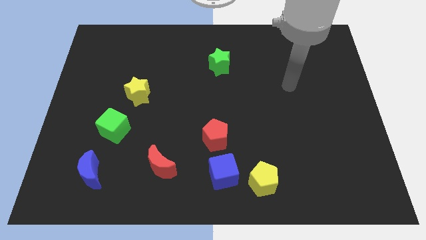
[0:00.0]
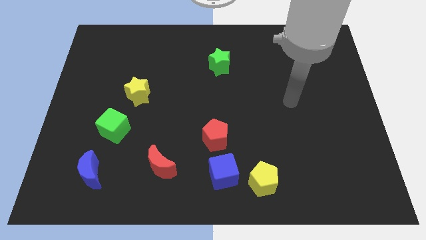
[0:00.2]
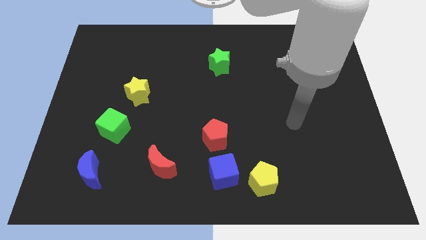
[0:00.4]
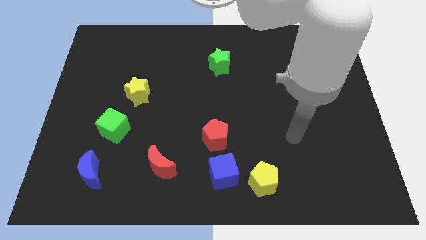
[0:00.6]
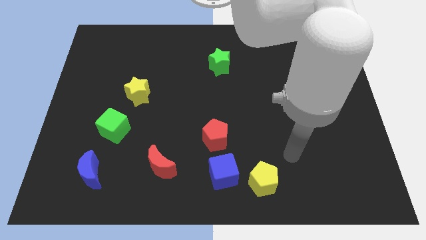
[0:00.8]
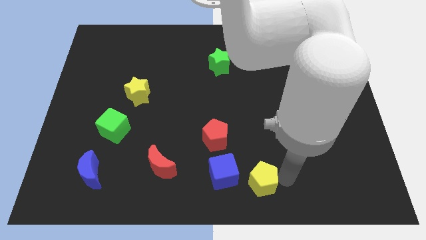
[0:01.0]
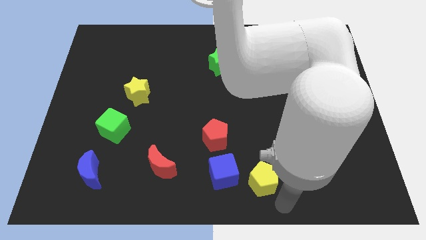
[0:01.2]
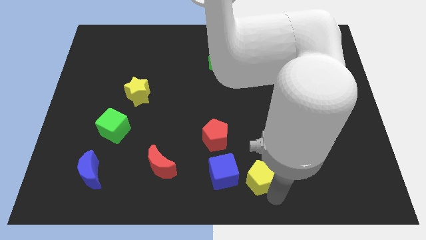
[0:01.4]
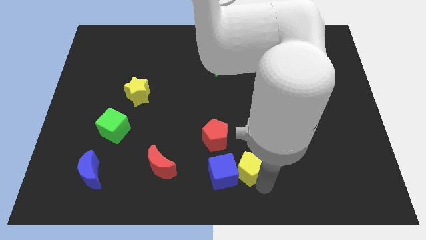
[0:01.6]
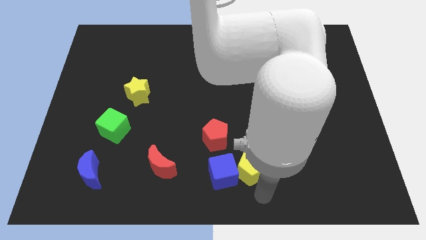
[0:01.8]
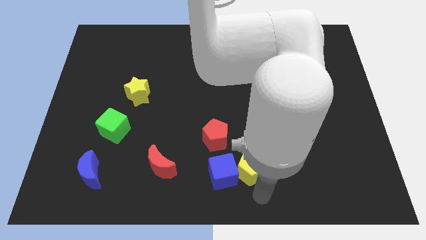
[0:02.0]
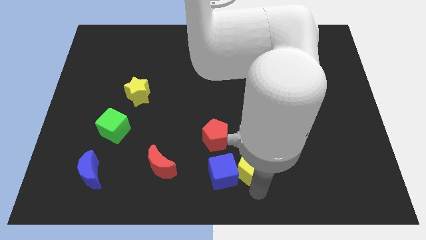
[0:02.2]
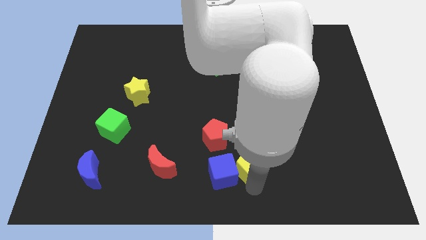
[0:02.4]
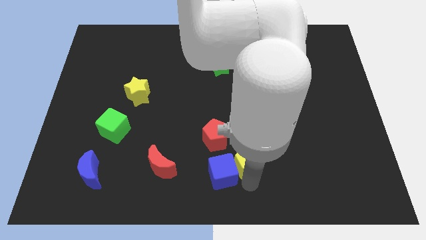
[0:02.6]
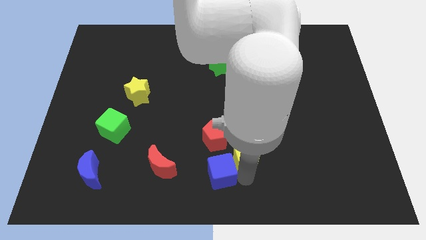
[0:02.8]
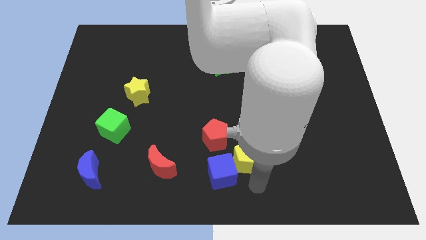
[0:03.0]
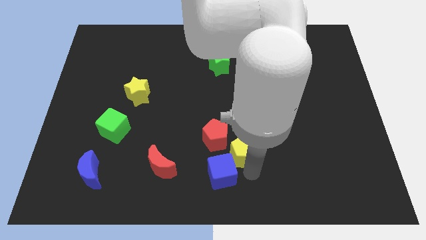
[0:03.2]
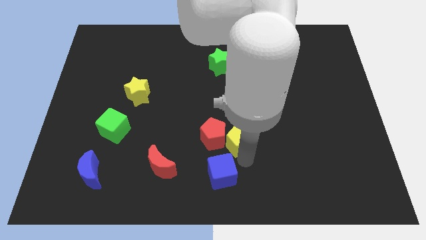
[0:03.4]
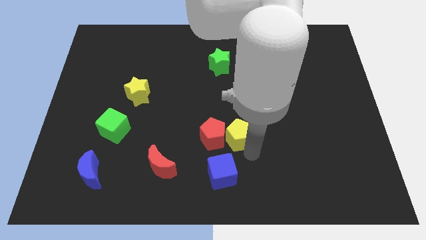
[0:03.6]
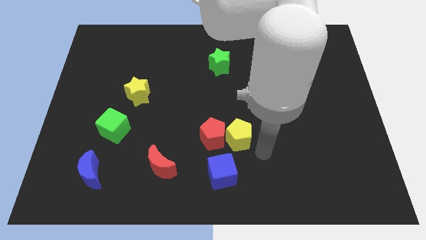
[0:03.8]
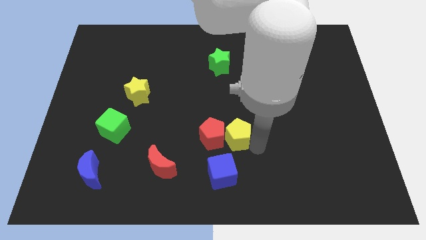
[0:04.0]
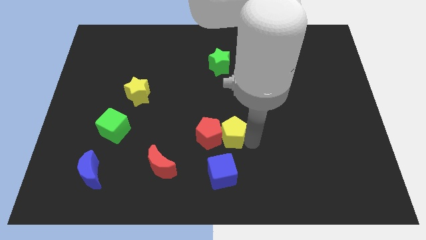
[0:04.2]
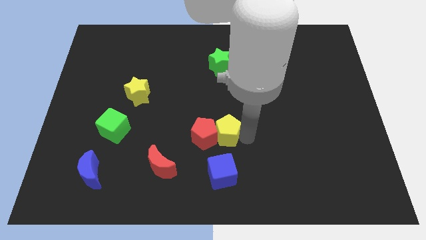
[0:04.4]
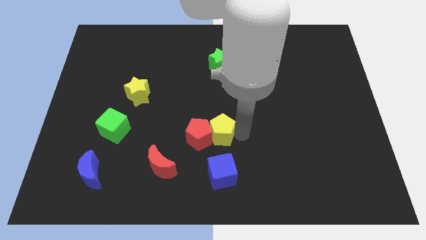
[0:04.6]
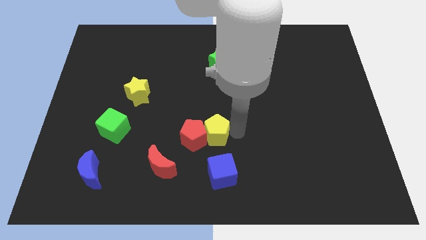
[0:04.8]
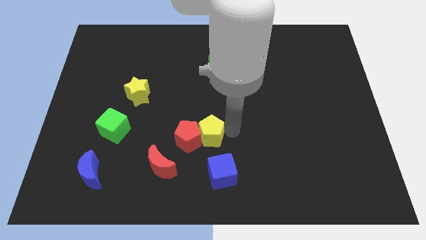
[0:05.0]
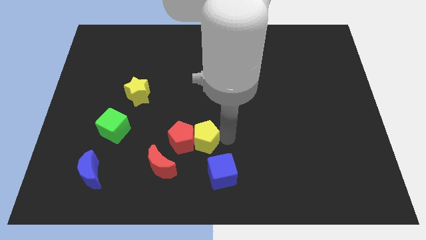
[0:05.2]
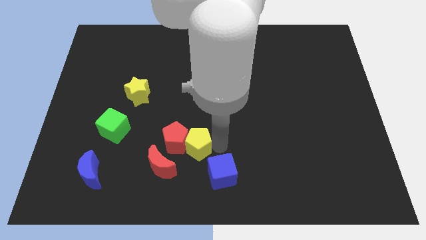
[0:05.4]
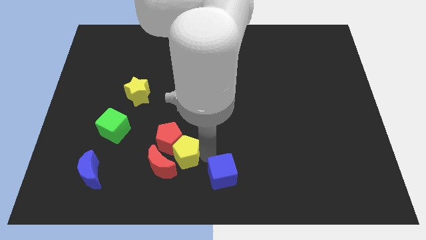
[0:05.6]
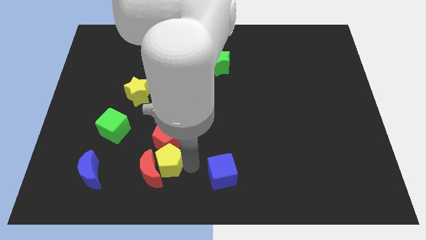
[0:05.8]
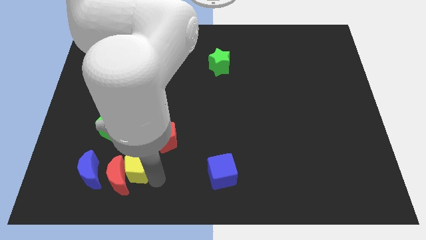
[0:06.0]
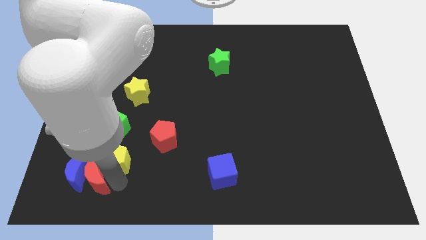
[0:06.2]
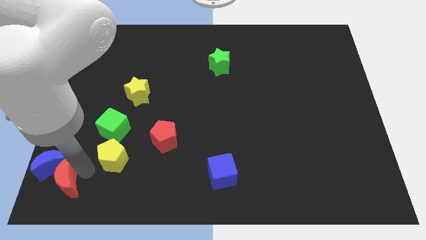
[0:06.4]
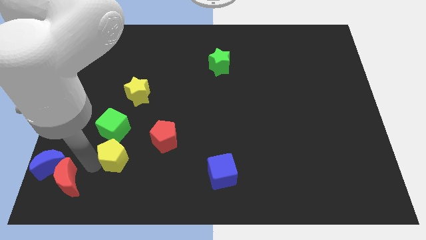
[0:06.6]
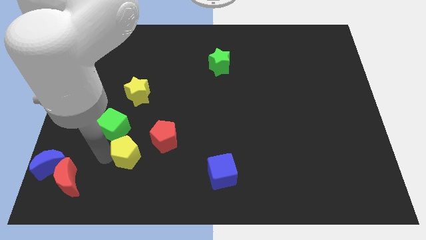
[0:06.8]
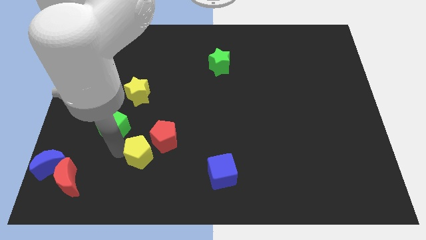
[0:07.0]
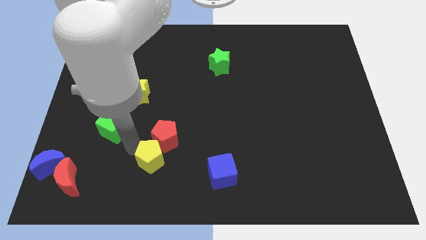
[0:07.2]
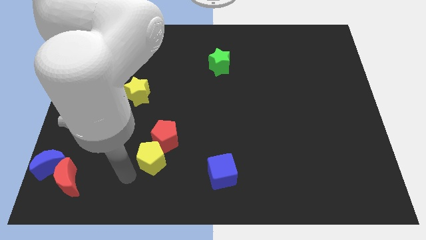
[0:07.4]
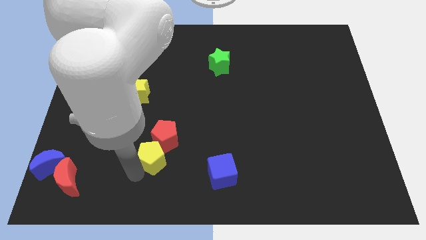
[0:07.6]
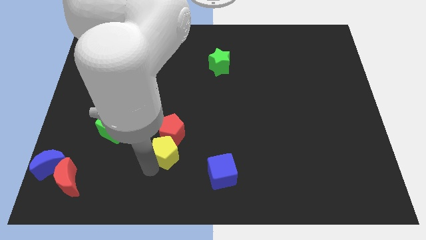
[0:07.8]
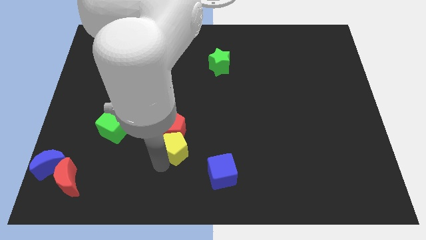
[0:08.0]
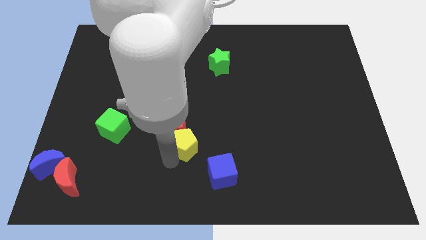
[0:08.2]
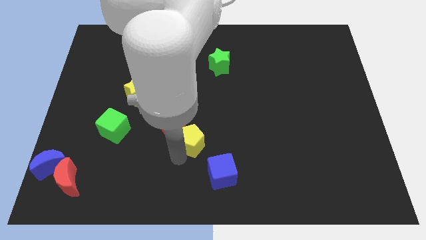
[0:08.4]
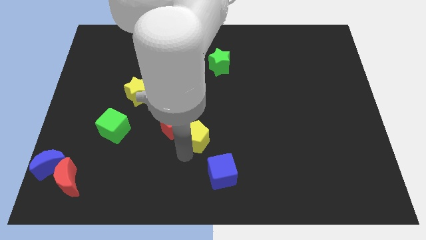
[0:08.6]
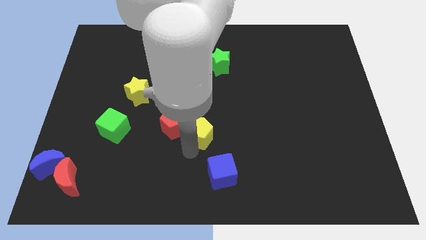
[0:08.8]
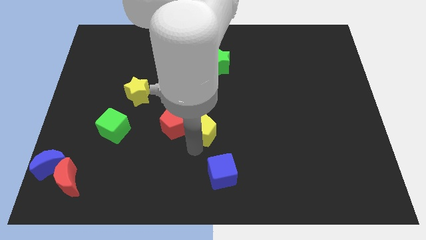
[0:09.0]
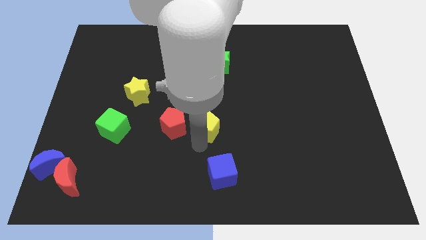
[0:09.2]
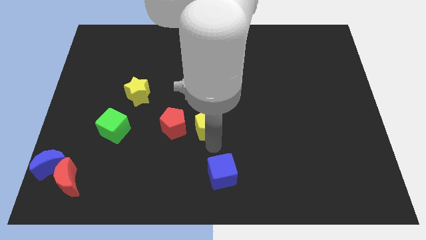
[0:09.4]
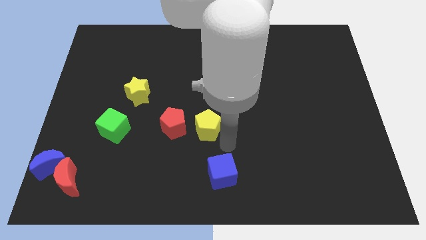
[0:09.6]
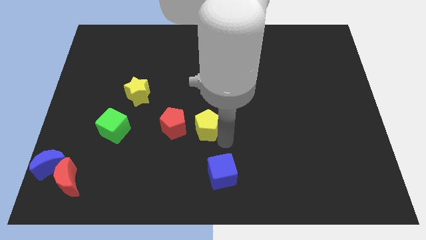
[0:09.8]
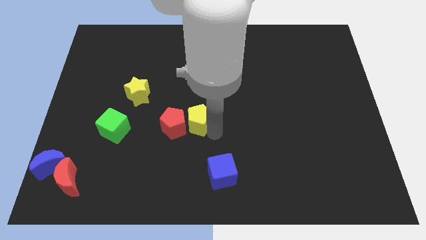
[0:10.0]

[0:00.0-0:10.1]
move the yellow pentagon diagonally upwards and to the left

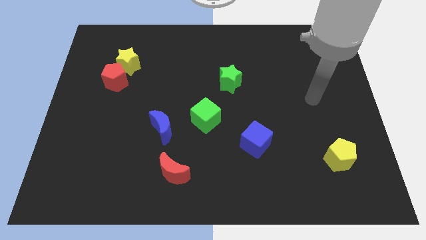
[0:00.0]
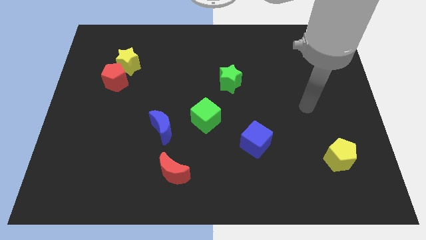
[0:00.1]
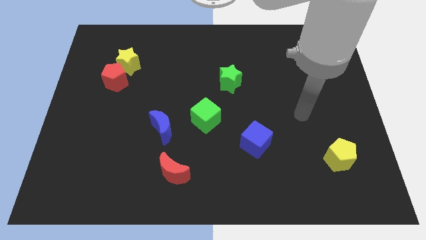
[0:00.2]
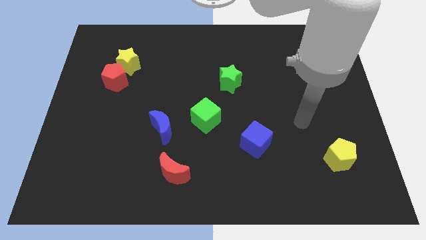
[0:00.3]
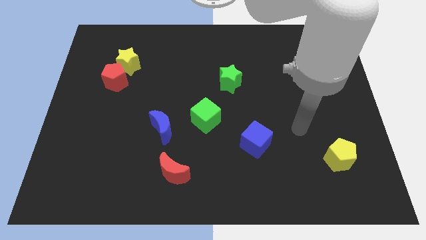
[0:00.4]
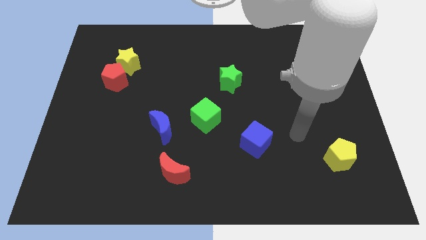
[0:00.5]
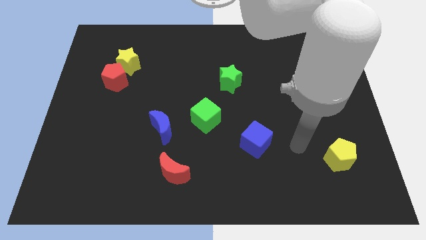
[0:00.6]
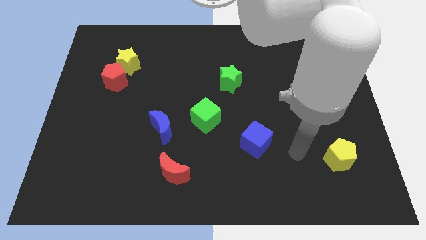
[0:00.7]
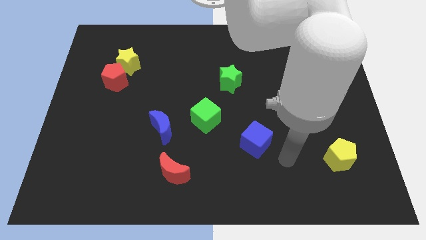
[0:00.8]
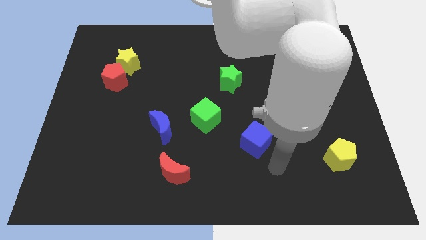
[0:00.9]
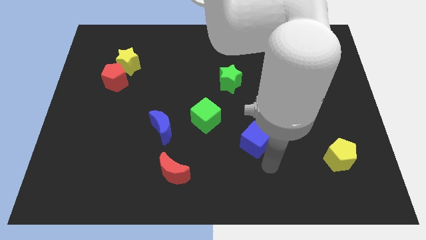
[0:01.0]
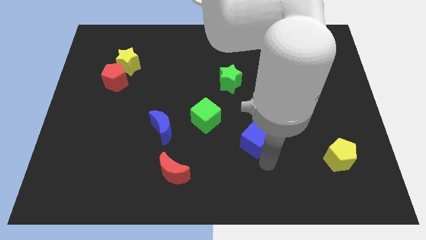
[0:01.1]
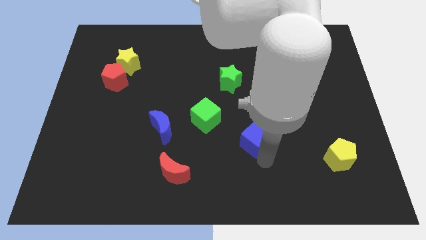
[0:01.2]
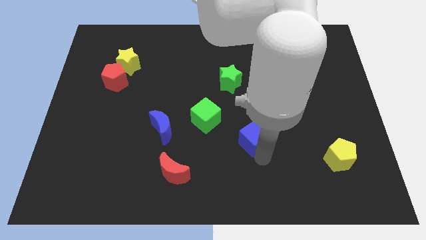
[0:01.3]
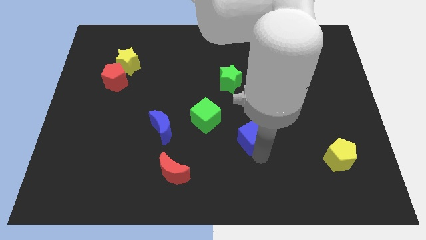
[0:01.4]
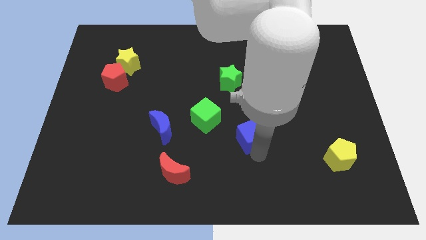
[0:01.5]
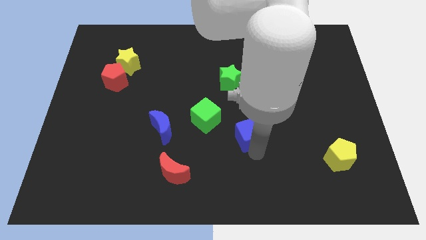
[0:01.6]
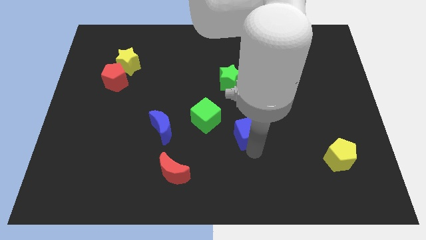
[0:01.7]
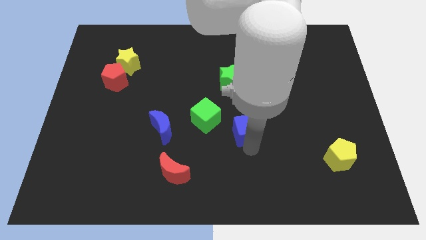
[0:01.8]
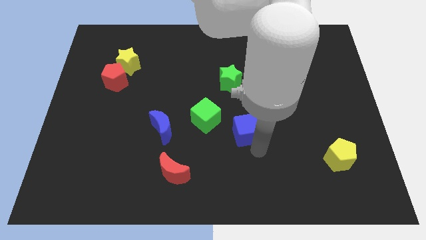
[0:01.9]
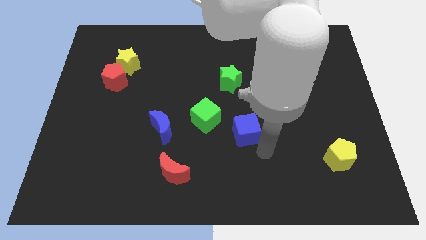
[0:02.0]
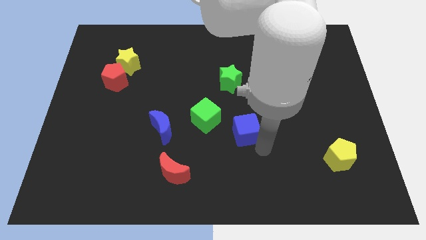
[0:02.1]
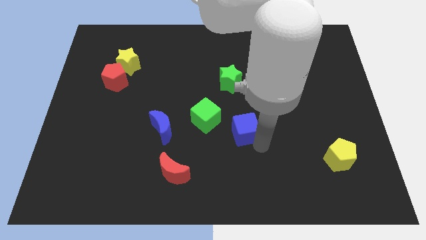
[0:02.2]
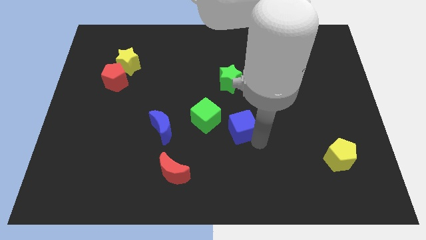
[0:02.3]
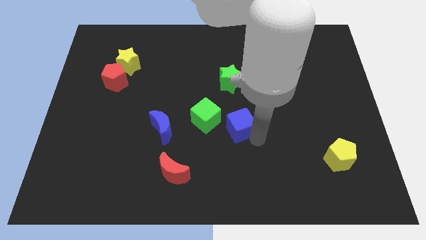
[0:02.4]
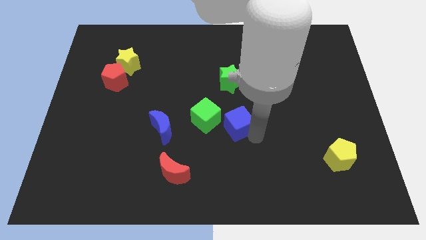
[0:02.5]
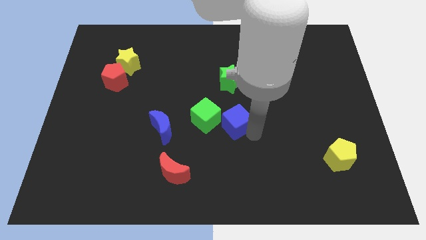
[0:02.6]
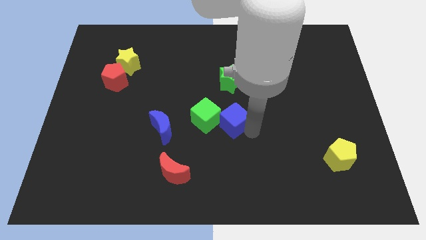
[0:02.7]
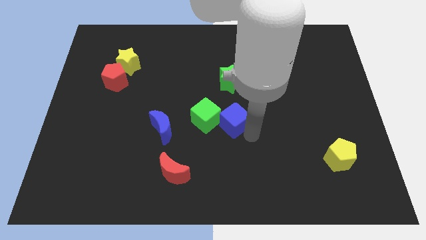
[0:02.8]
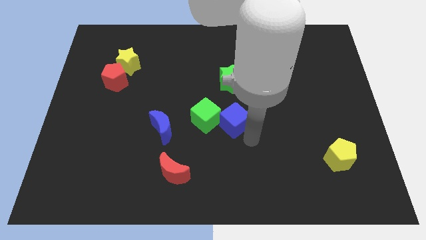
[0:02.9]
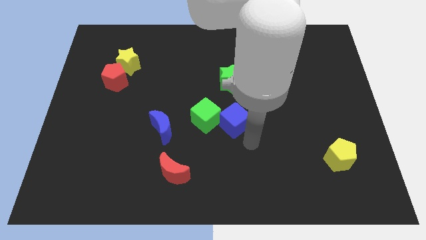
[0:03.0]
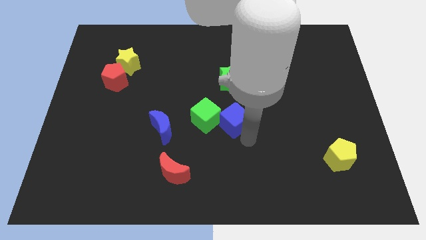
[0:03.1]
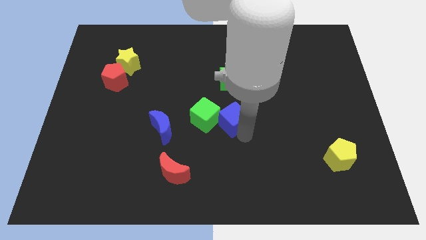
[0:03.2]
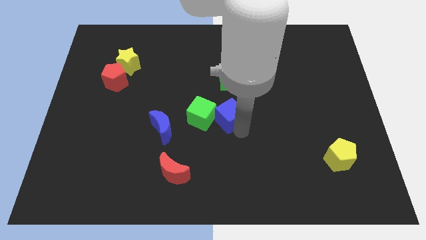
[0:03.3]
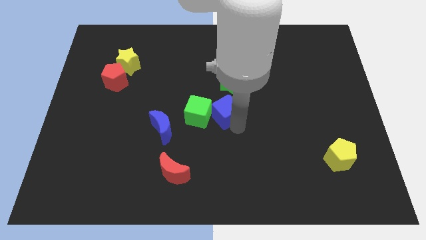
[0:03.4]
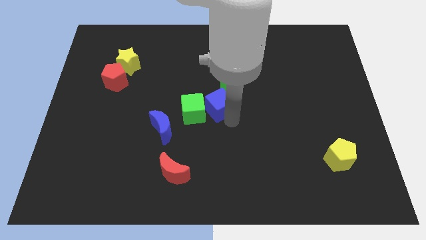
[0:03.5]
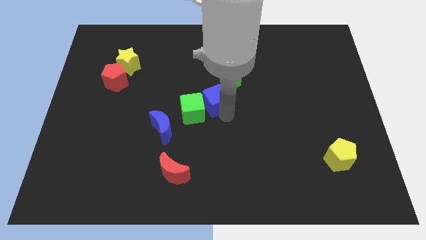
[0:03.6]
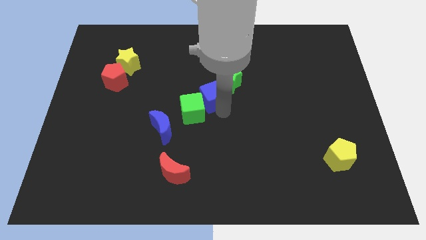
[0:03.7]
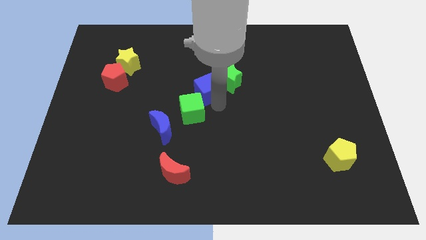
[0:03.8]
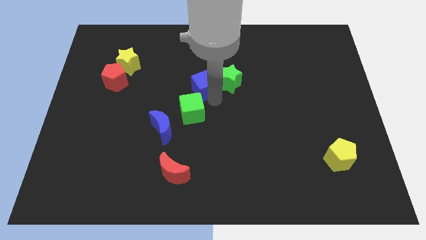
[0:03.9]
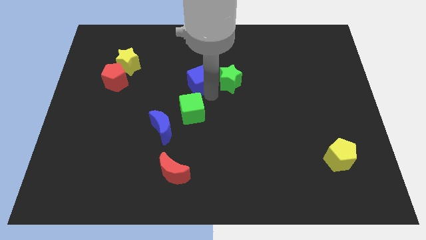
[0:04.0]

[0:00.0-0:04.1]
slide the blue cube upwards and to the left
